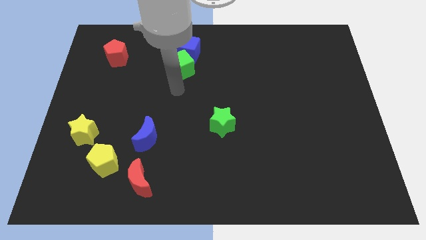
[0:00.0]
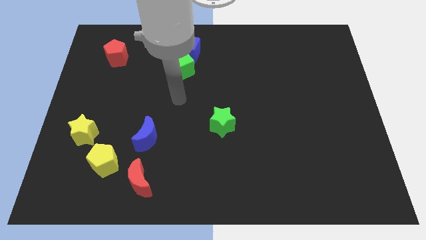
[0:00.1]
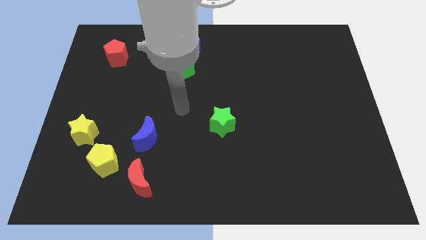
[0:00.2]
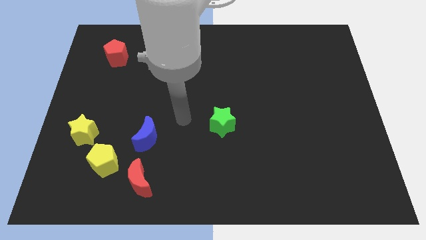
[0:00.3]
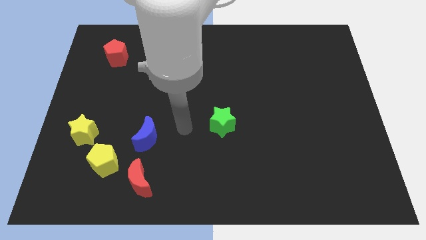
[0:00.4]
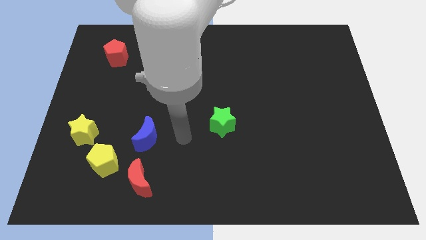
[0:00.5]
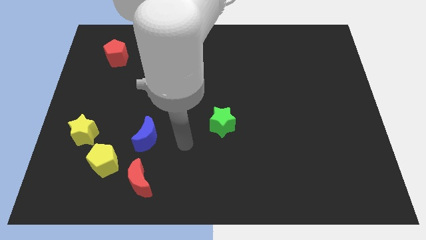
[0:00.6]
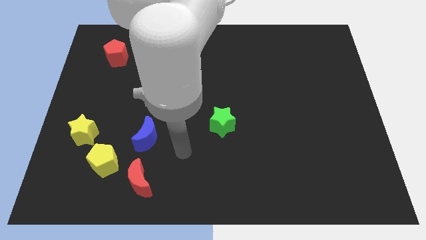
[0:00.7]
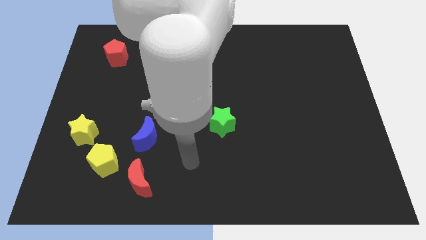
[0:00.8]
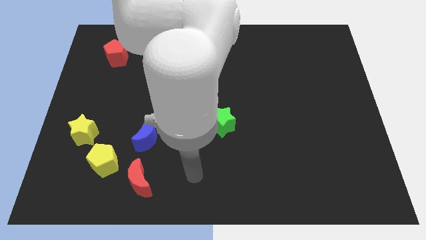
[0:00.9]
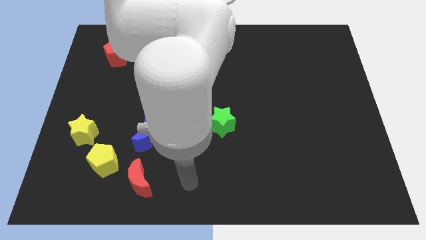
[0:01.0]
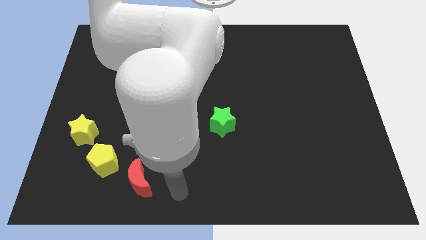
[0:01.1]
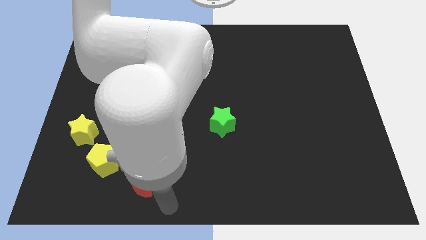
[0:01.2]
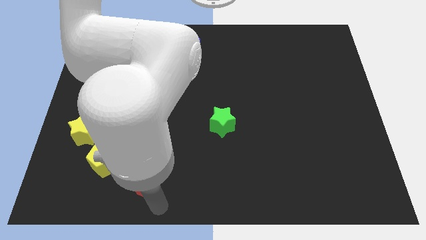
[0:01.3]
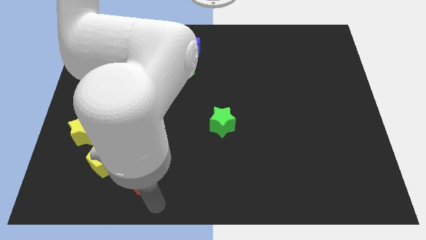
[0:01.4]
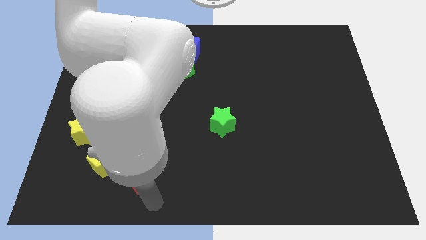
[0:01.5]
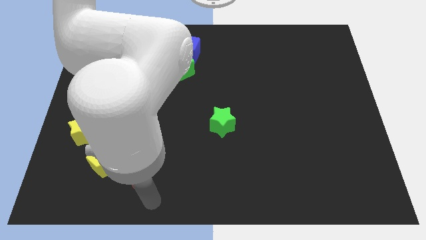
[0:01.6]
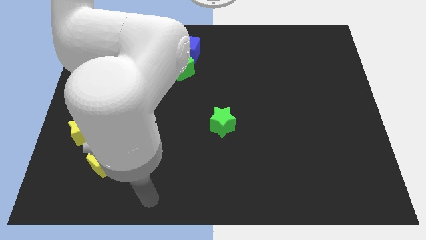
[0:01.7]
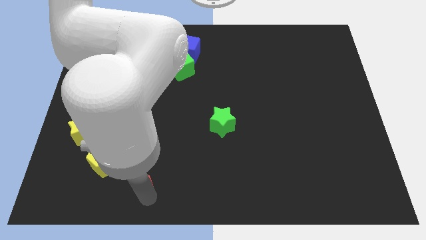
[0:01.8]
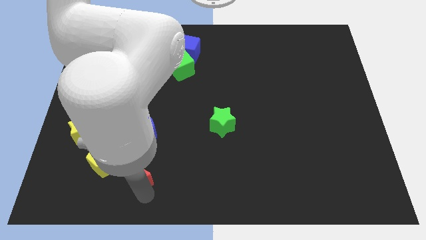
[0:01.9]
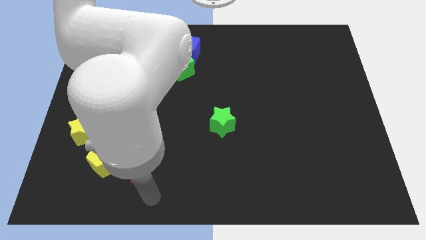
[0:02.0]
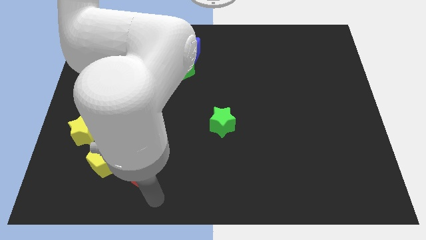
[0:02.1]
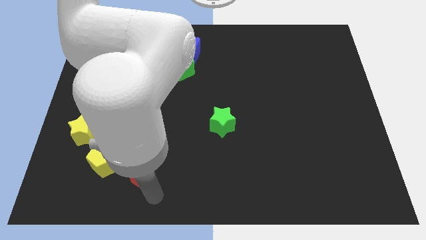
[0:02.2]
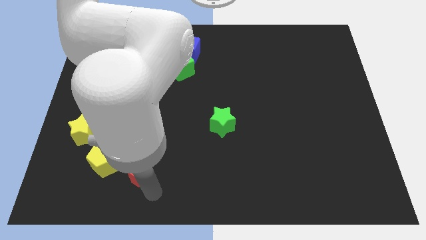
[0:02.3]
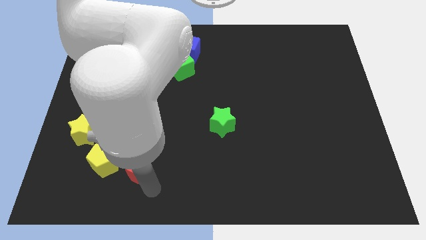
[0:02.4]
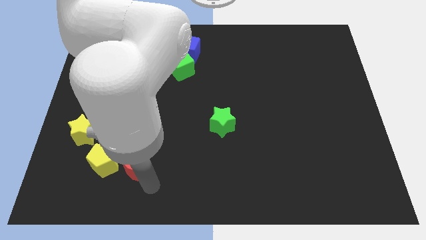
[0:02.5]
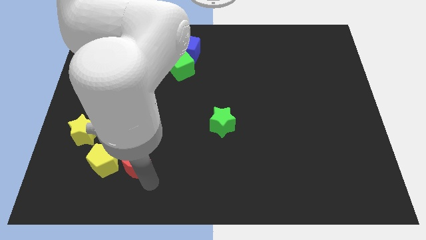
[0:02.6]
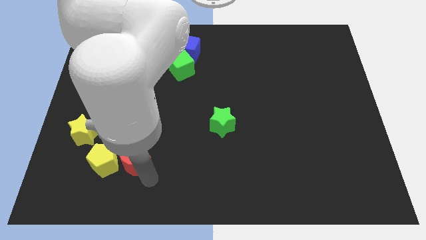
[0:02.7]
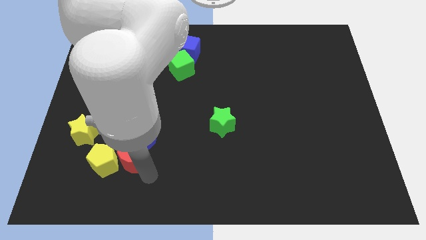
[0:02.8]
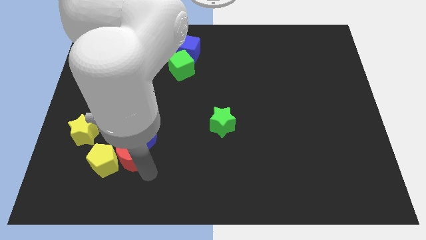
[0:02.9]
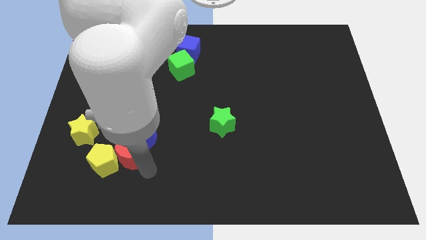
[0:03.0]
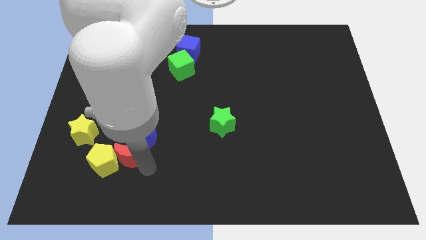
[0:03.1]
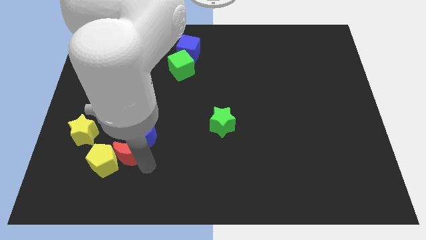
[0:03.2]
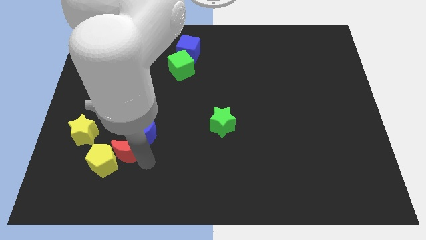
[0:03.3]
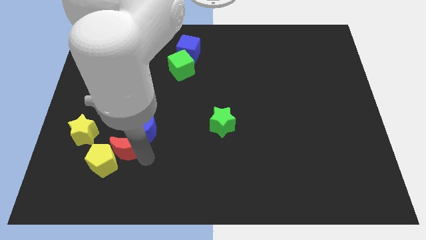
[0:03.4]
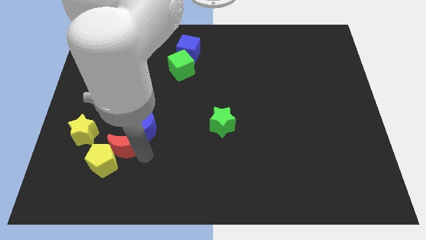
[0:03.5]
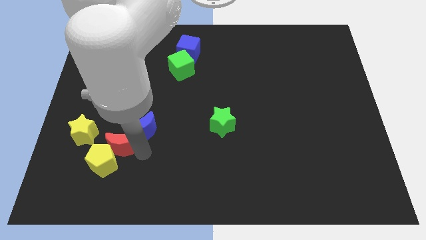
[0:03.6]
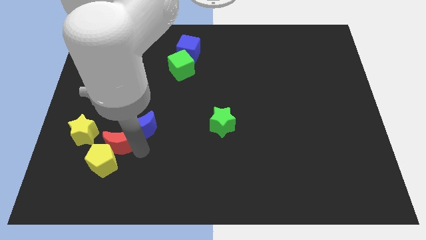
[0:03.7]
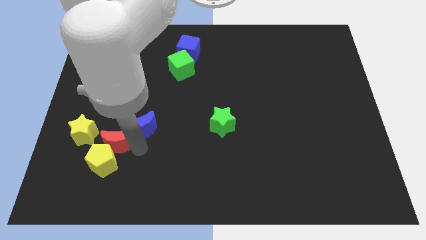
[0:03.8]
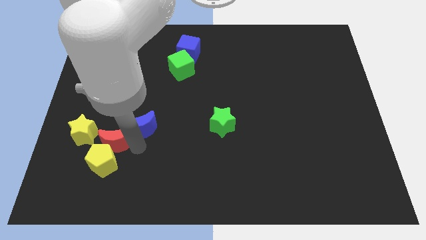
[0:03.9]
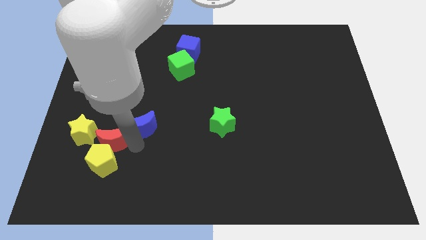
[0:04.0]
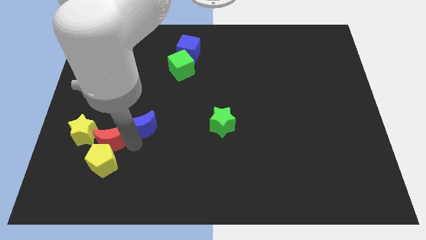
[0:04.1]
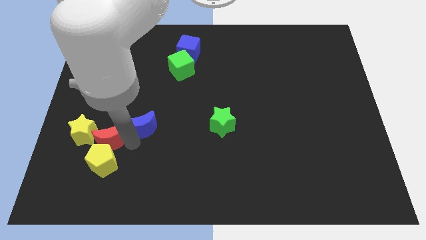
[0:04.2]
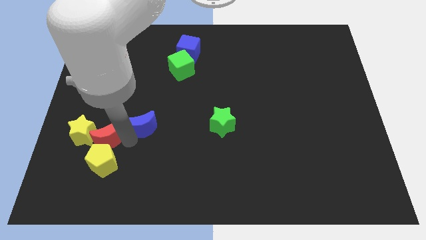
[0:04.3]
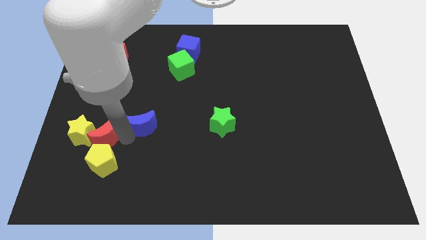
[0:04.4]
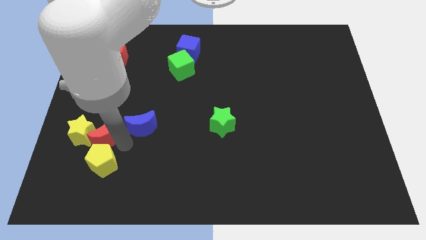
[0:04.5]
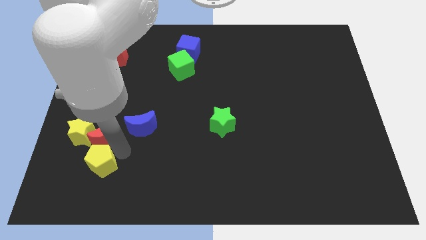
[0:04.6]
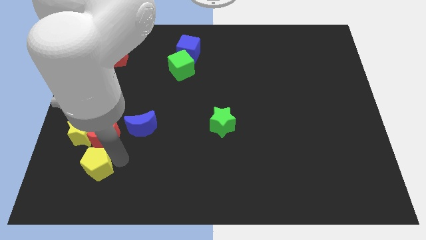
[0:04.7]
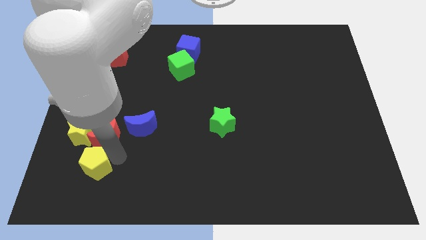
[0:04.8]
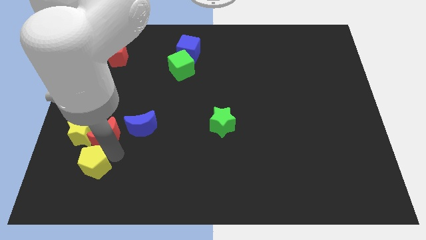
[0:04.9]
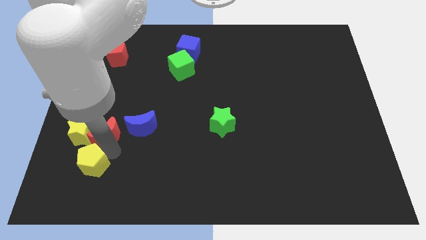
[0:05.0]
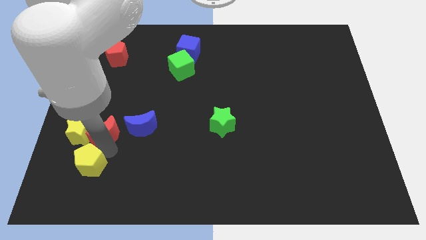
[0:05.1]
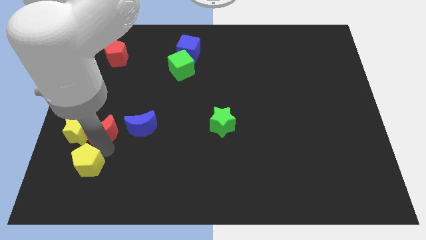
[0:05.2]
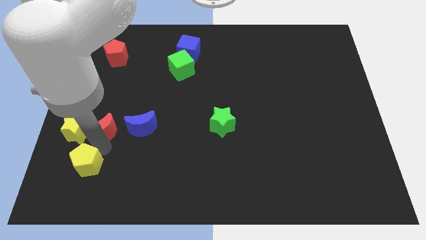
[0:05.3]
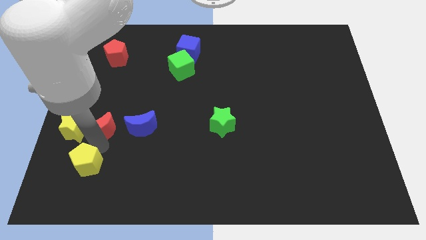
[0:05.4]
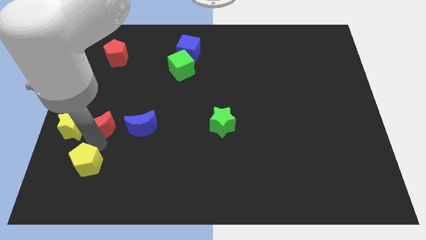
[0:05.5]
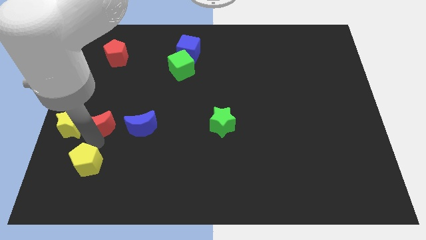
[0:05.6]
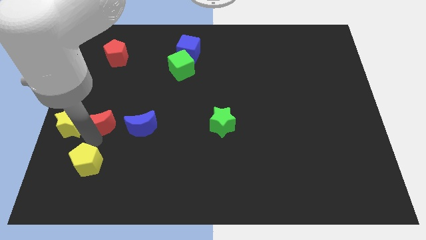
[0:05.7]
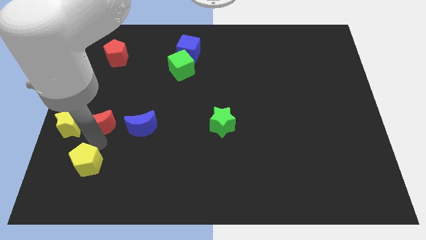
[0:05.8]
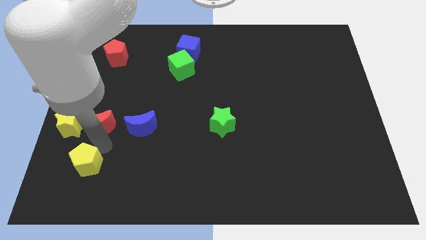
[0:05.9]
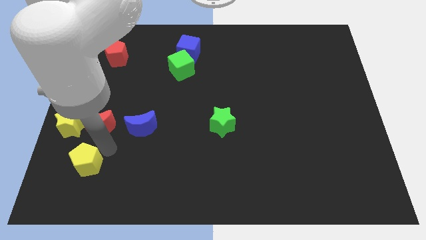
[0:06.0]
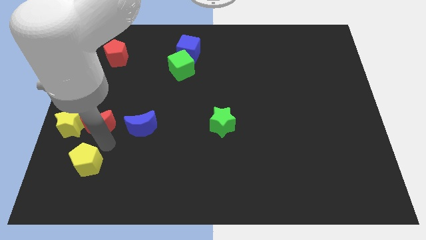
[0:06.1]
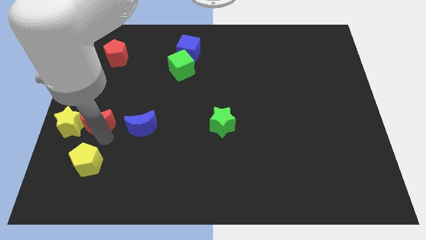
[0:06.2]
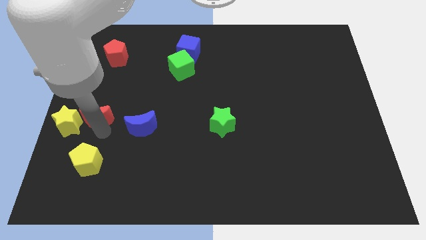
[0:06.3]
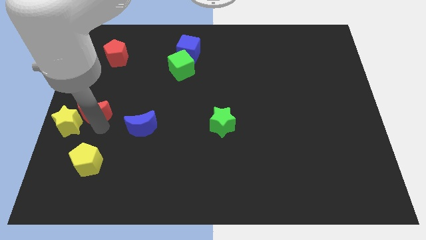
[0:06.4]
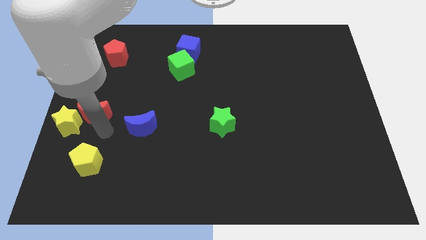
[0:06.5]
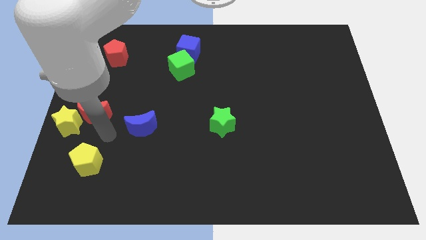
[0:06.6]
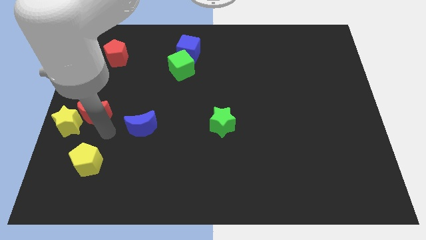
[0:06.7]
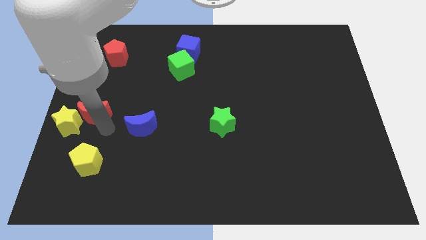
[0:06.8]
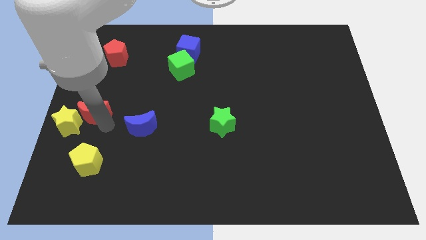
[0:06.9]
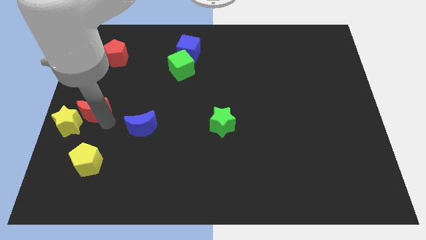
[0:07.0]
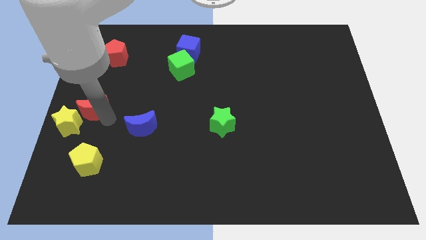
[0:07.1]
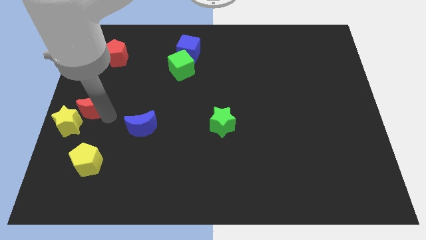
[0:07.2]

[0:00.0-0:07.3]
push the red moon to the top side of the yellow star

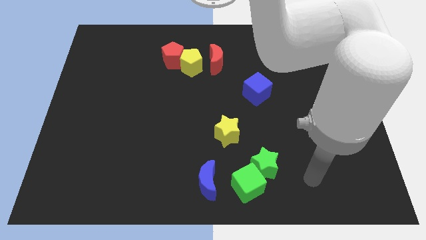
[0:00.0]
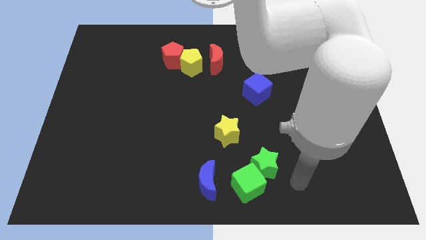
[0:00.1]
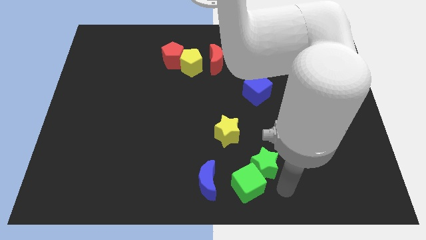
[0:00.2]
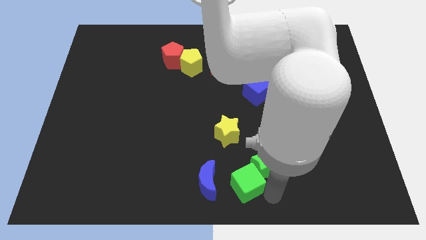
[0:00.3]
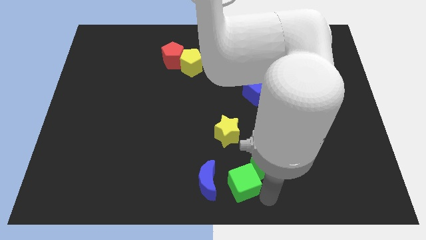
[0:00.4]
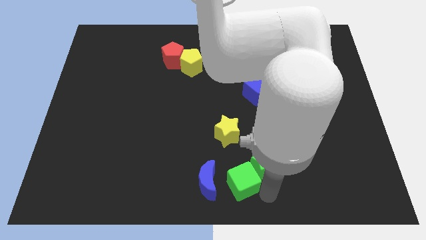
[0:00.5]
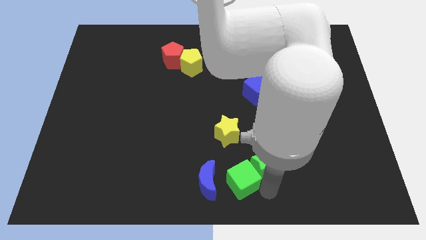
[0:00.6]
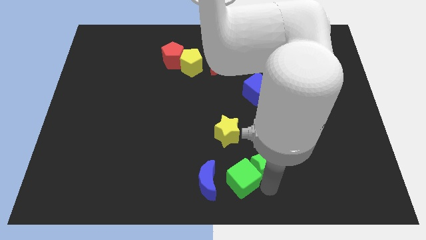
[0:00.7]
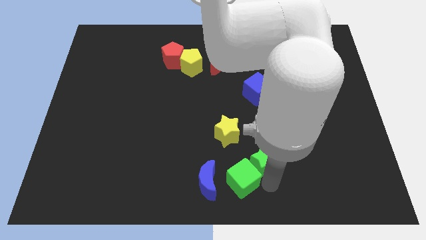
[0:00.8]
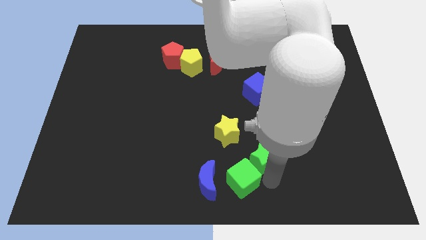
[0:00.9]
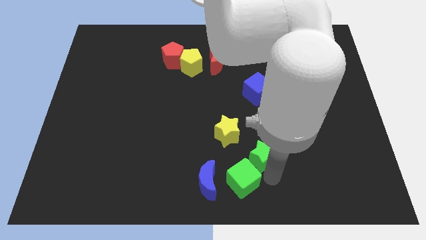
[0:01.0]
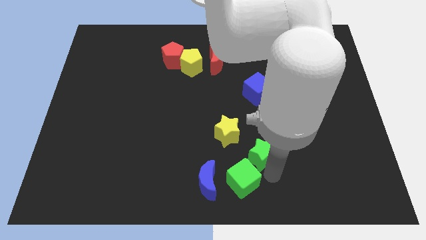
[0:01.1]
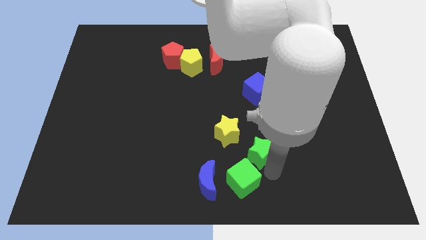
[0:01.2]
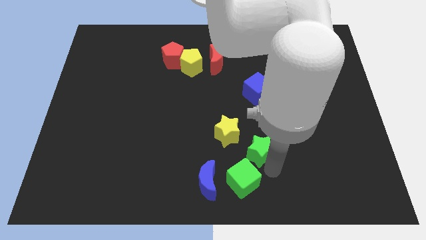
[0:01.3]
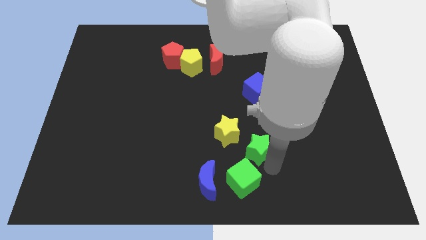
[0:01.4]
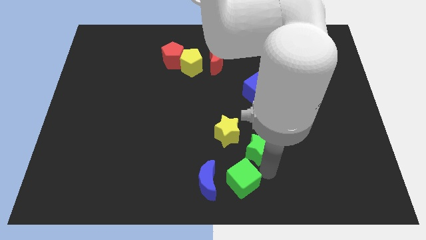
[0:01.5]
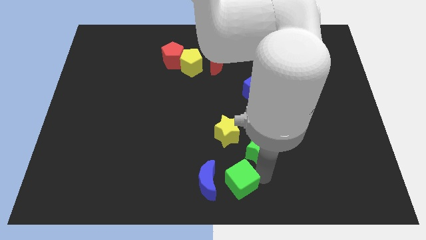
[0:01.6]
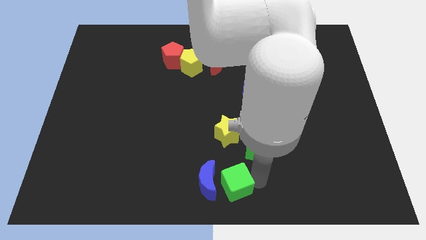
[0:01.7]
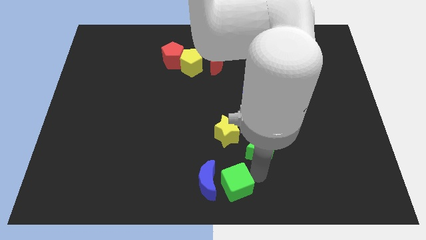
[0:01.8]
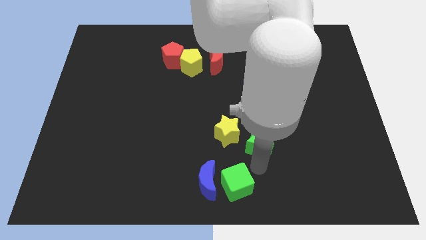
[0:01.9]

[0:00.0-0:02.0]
slide the green star to the bottom side of the blue cube
